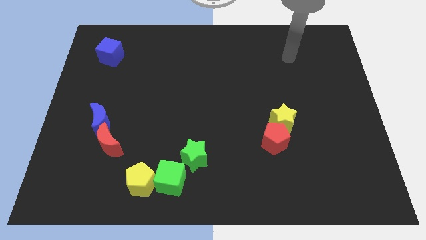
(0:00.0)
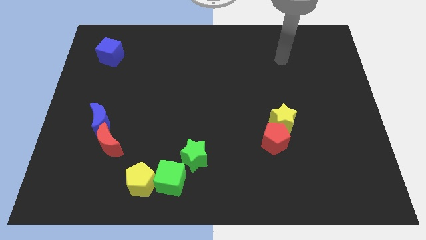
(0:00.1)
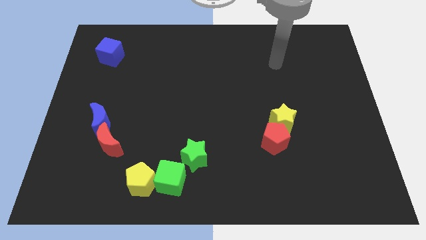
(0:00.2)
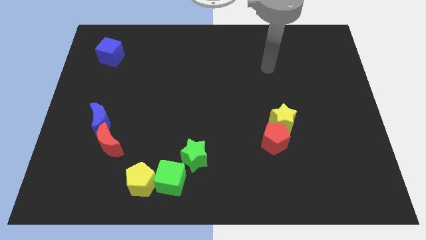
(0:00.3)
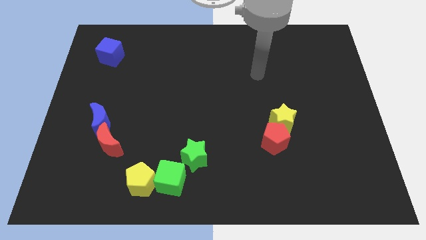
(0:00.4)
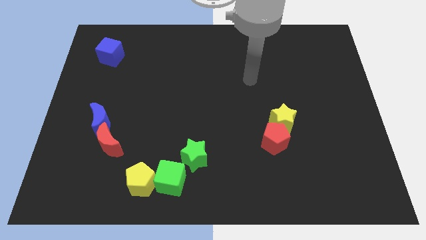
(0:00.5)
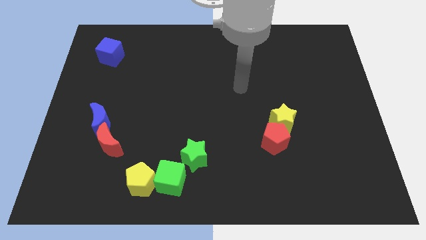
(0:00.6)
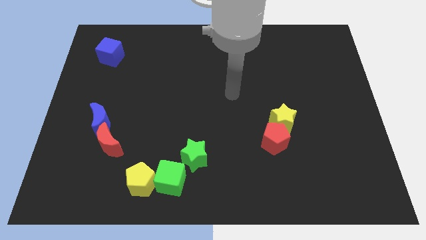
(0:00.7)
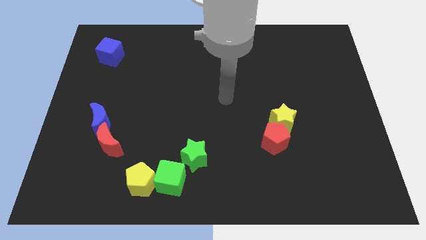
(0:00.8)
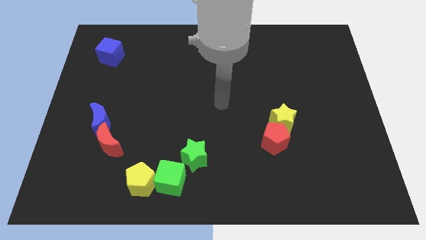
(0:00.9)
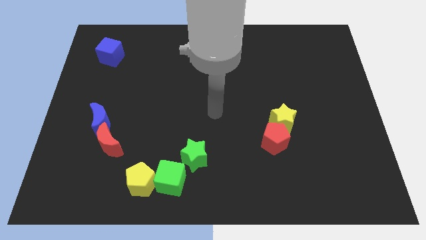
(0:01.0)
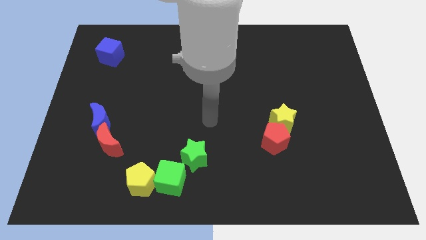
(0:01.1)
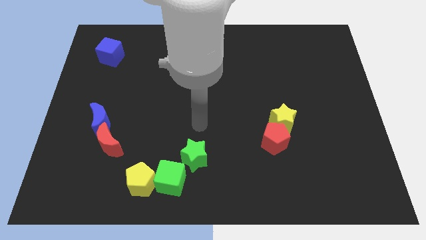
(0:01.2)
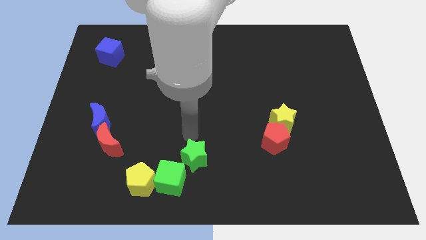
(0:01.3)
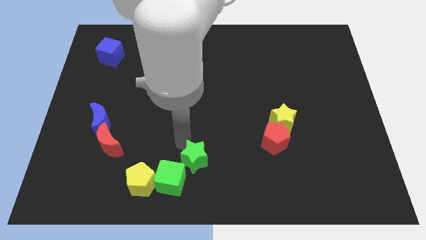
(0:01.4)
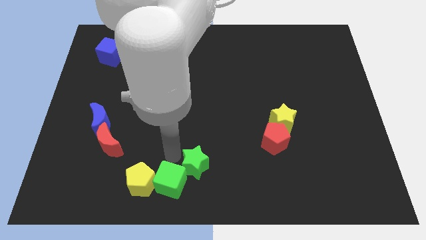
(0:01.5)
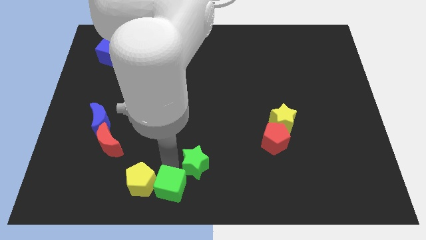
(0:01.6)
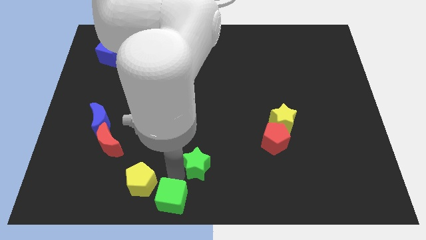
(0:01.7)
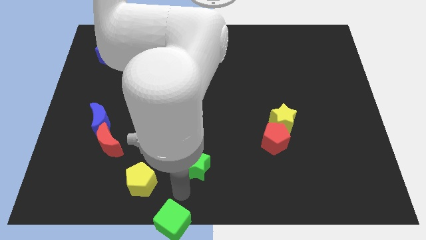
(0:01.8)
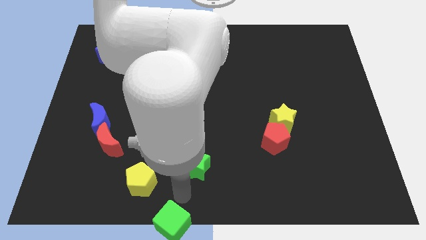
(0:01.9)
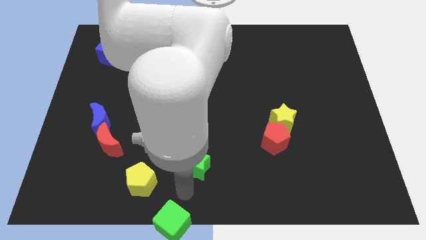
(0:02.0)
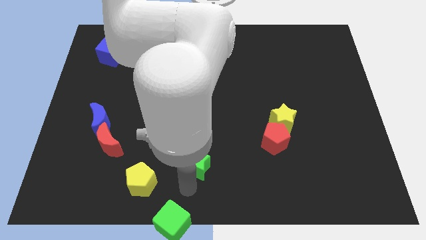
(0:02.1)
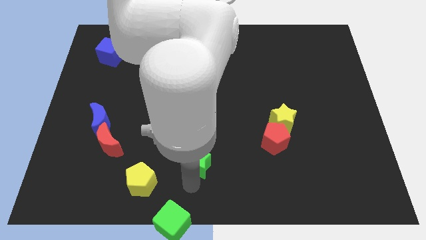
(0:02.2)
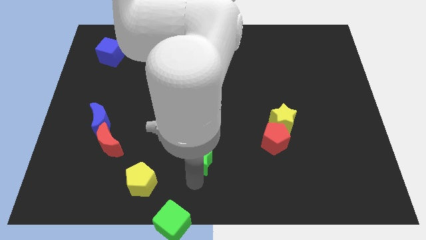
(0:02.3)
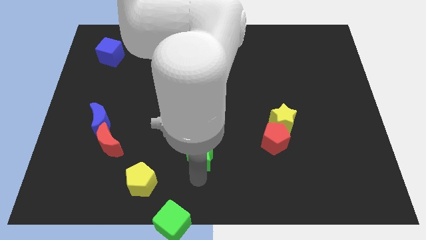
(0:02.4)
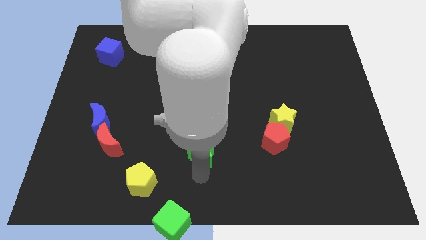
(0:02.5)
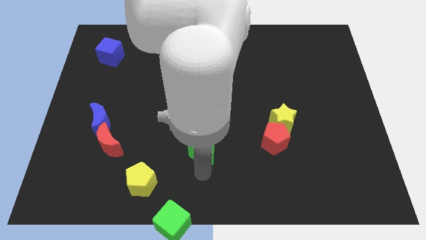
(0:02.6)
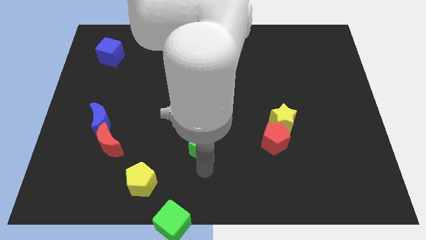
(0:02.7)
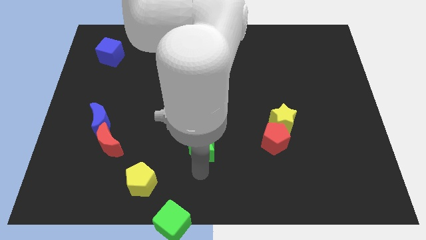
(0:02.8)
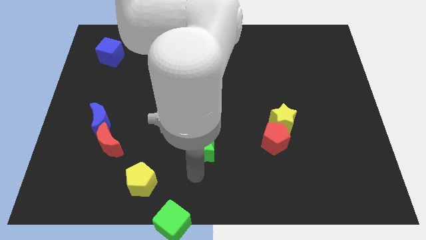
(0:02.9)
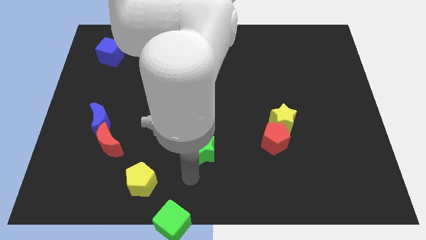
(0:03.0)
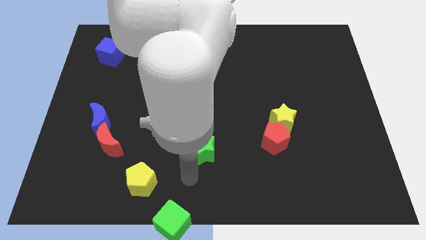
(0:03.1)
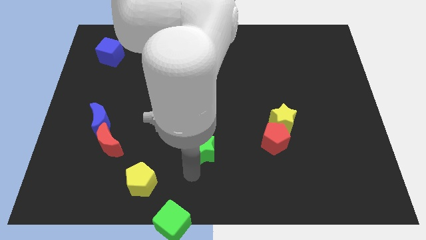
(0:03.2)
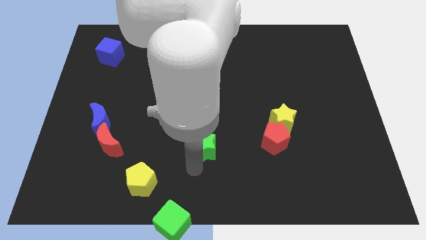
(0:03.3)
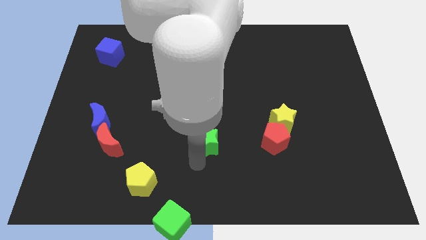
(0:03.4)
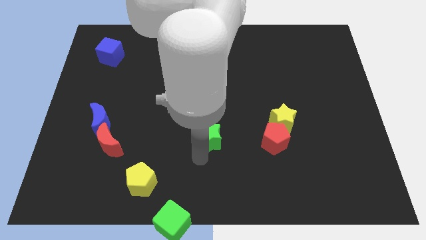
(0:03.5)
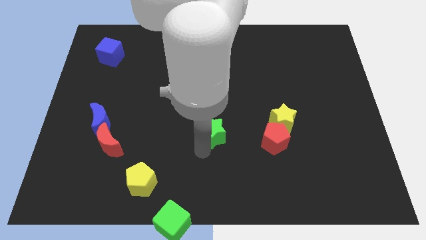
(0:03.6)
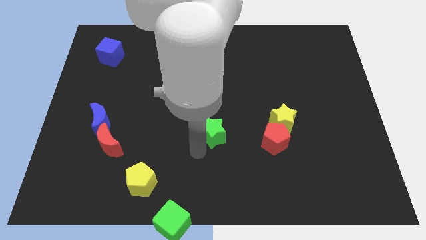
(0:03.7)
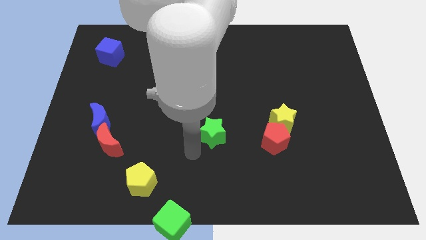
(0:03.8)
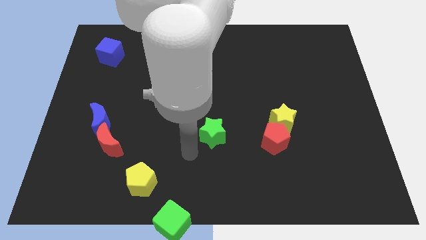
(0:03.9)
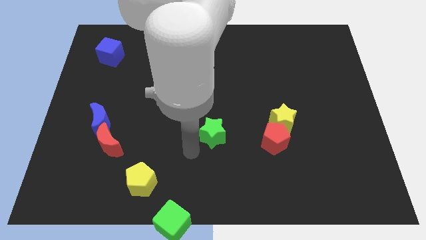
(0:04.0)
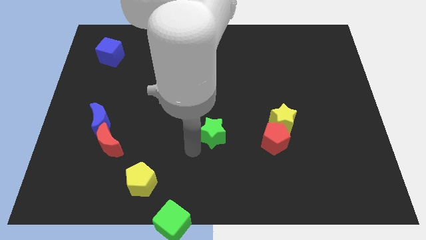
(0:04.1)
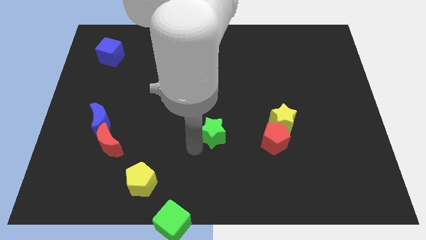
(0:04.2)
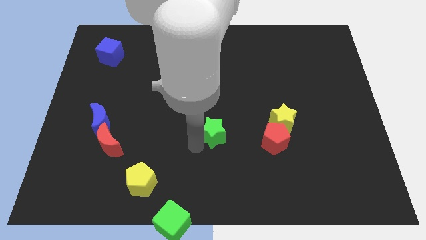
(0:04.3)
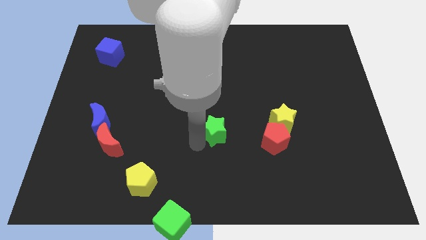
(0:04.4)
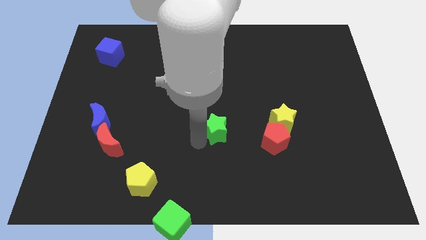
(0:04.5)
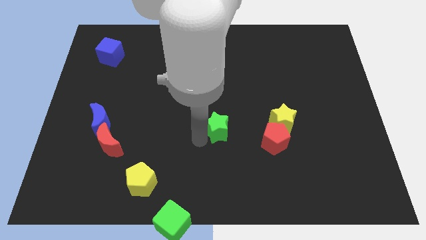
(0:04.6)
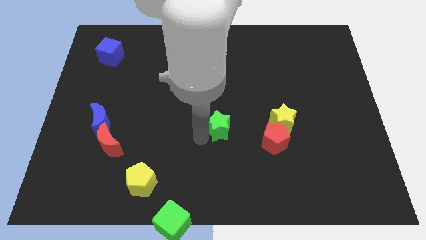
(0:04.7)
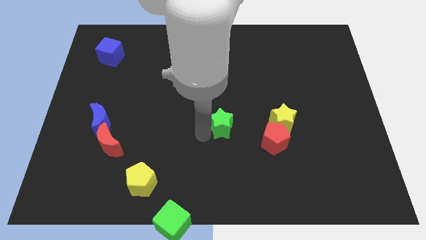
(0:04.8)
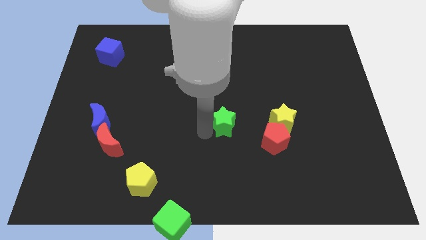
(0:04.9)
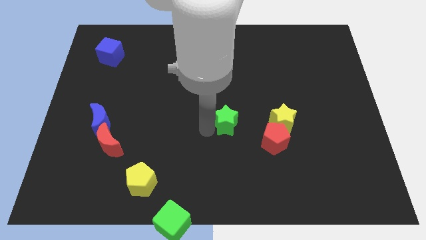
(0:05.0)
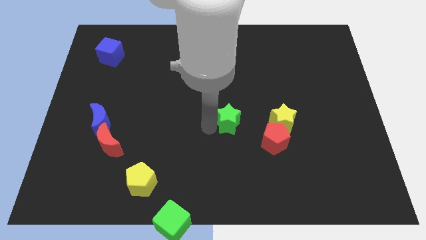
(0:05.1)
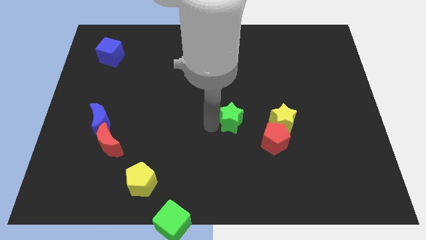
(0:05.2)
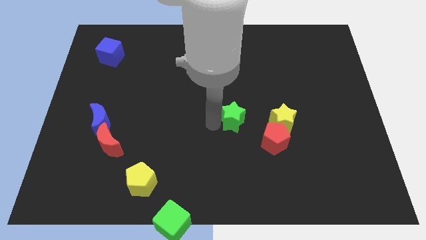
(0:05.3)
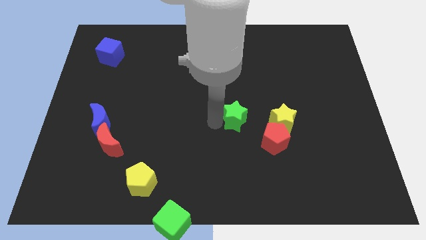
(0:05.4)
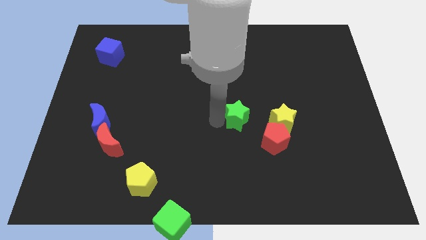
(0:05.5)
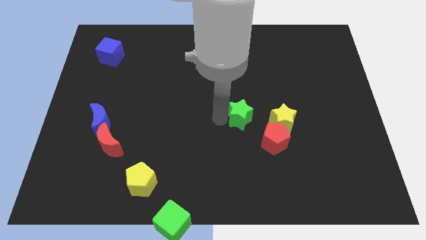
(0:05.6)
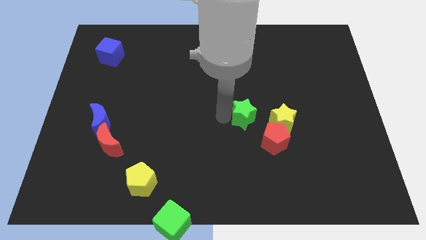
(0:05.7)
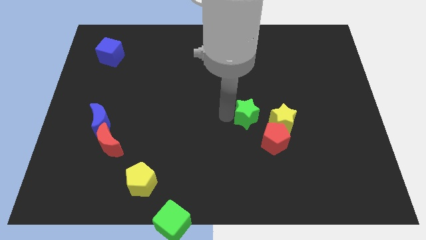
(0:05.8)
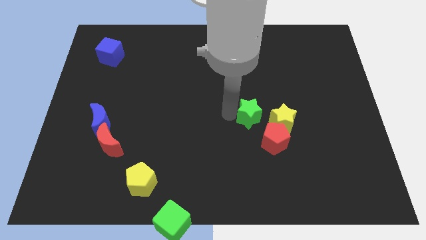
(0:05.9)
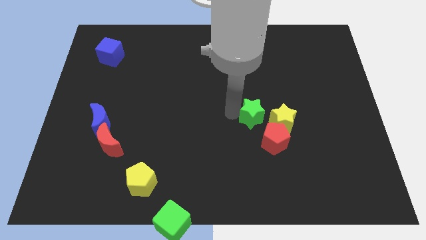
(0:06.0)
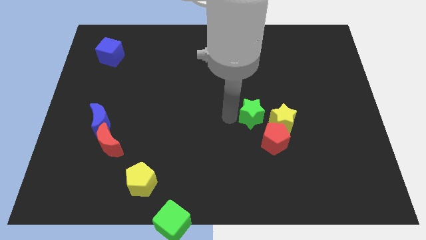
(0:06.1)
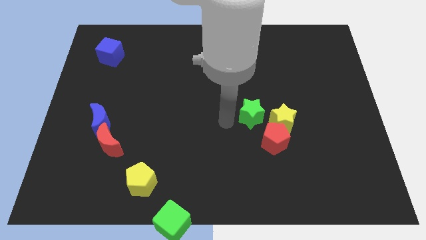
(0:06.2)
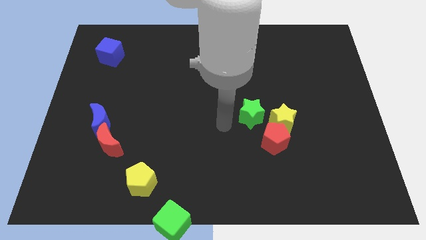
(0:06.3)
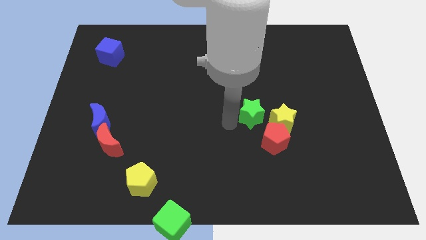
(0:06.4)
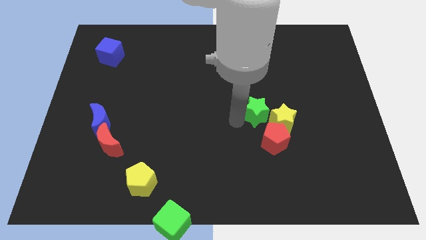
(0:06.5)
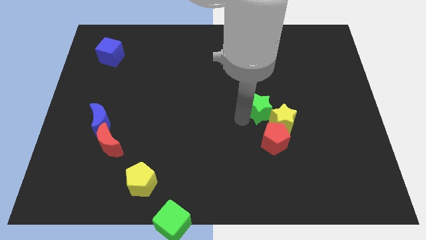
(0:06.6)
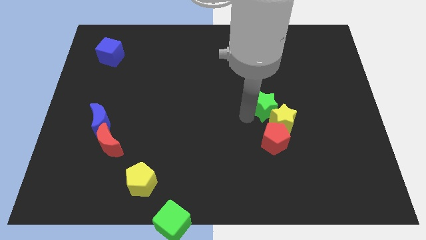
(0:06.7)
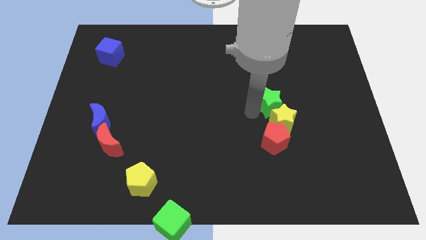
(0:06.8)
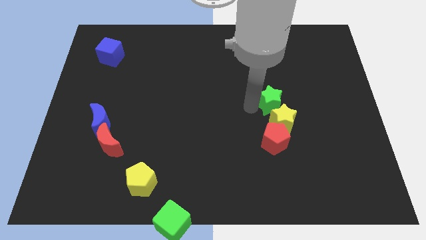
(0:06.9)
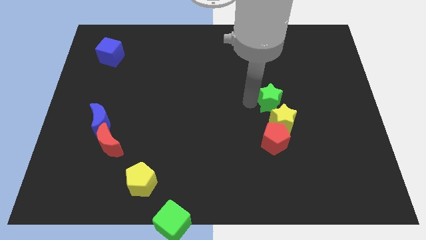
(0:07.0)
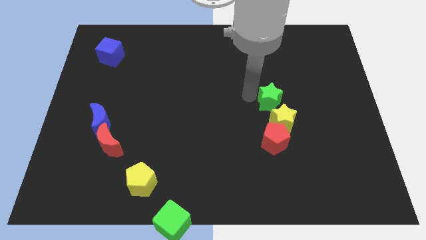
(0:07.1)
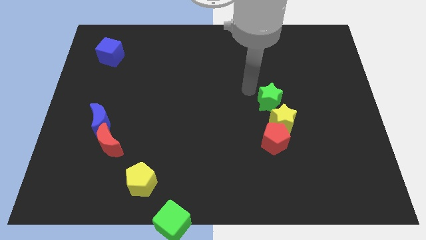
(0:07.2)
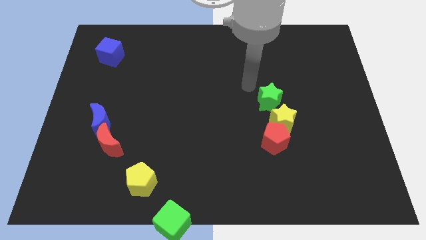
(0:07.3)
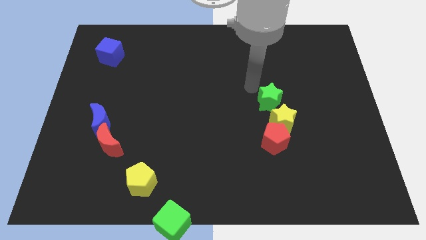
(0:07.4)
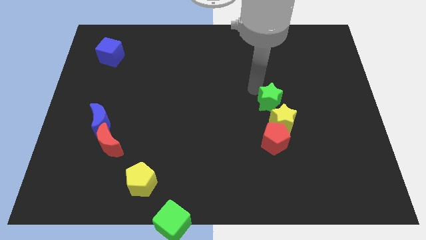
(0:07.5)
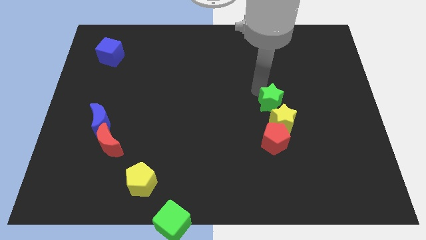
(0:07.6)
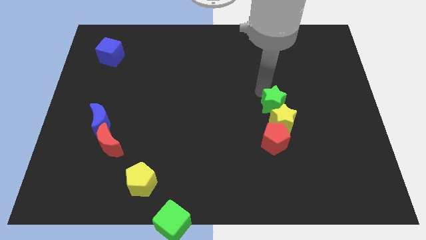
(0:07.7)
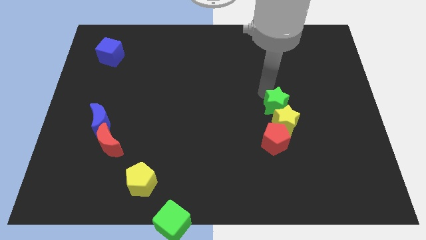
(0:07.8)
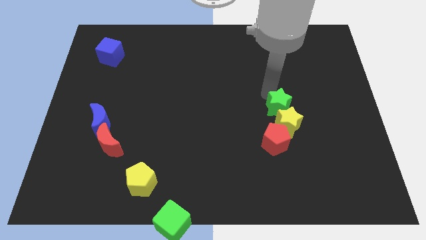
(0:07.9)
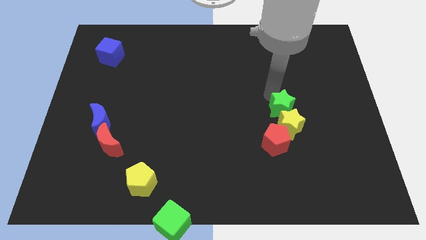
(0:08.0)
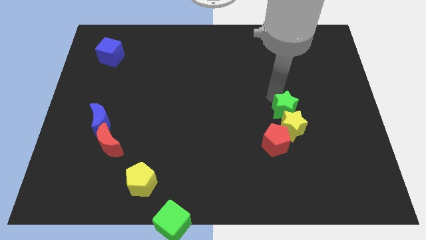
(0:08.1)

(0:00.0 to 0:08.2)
move the green star to the top right of the red pentagon
